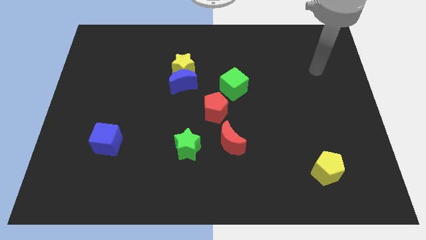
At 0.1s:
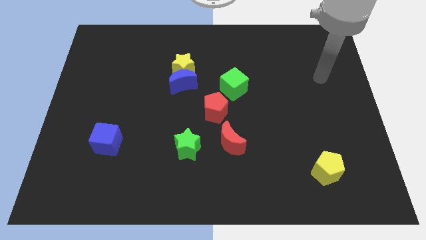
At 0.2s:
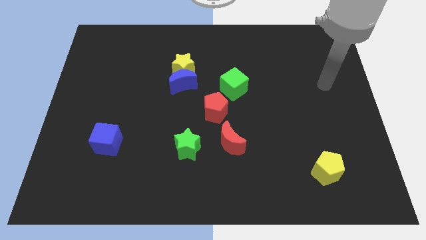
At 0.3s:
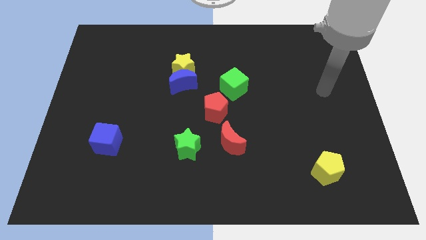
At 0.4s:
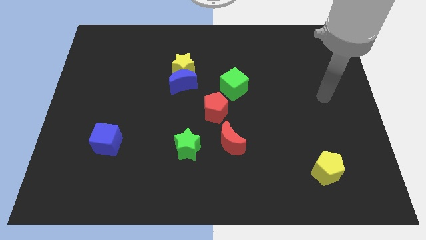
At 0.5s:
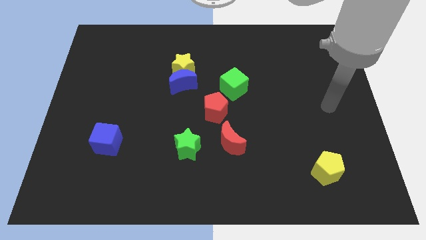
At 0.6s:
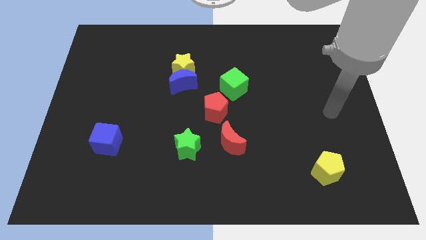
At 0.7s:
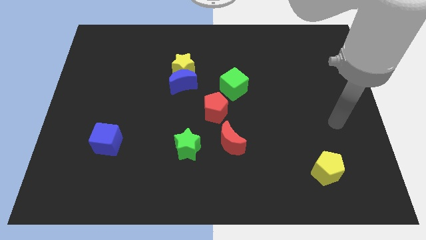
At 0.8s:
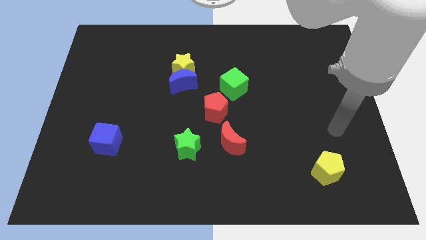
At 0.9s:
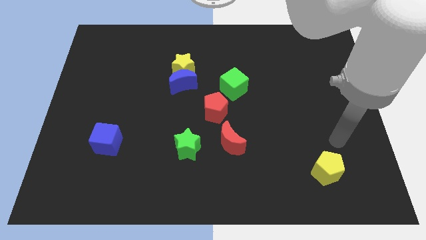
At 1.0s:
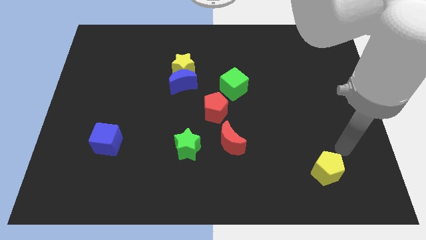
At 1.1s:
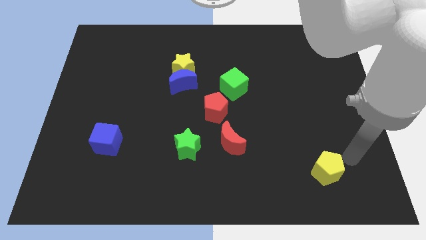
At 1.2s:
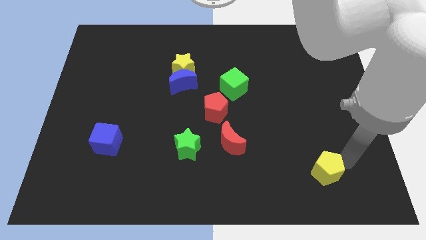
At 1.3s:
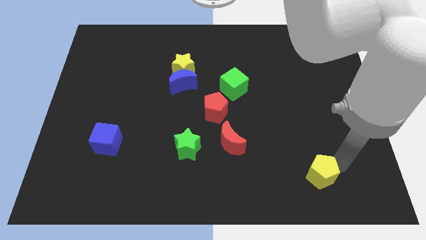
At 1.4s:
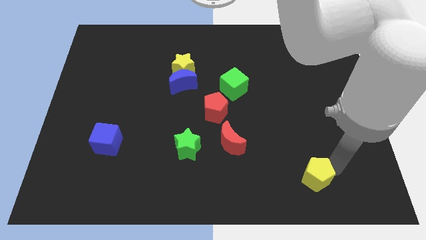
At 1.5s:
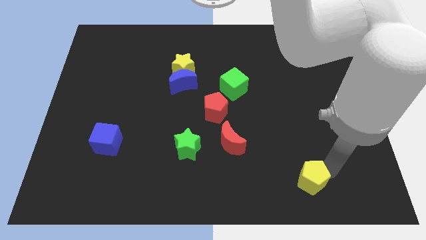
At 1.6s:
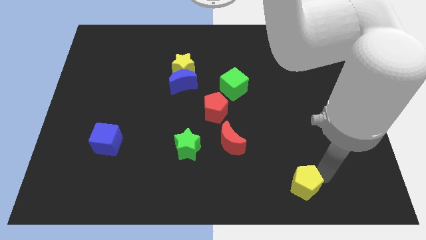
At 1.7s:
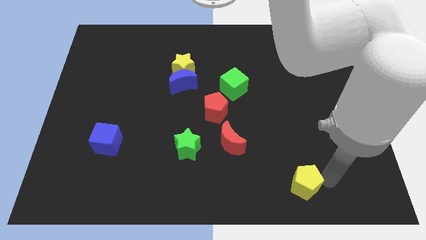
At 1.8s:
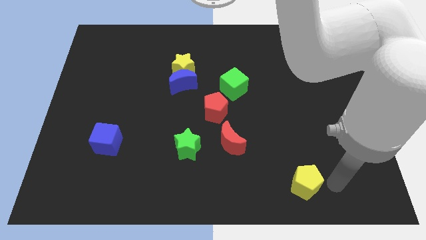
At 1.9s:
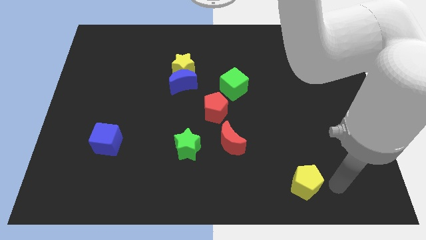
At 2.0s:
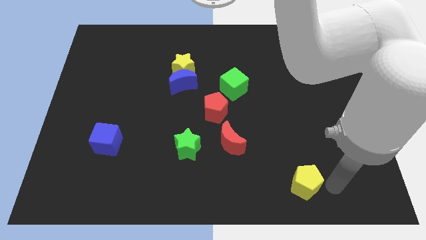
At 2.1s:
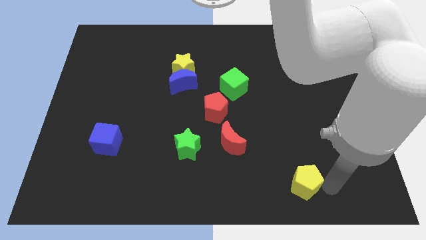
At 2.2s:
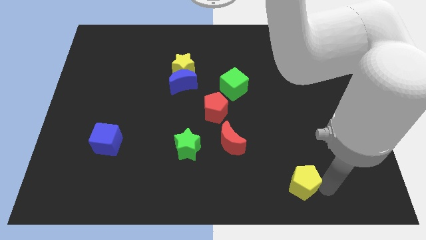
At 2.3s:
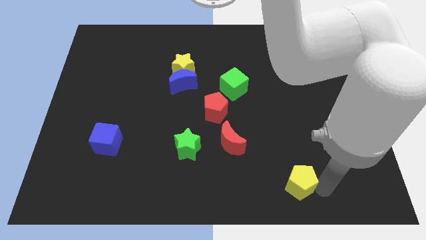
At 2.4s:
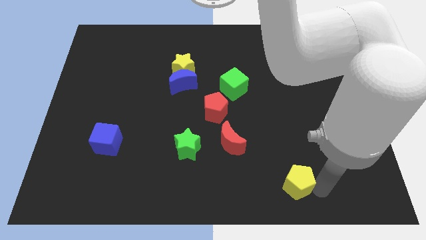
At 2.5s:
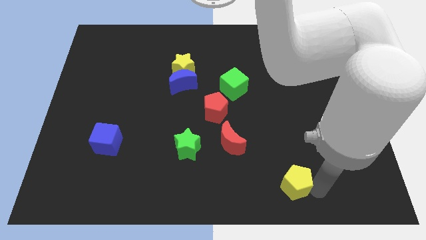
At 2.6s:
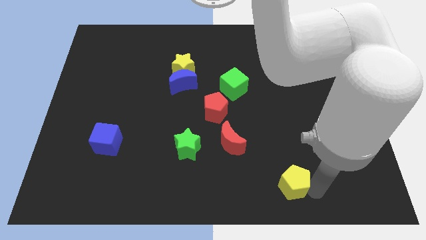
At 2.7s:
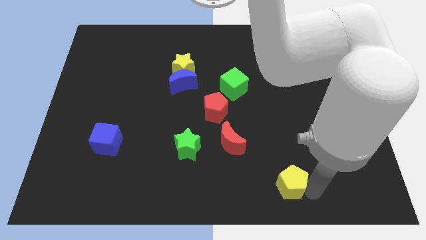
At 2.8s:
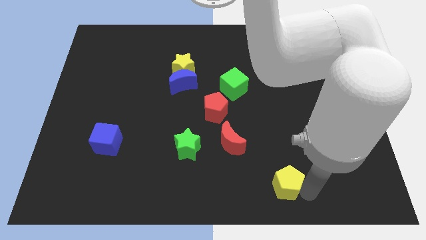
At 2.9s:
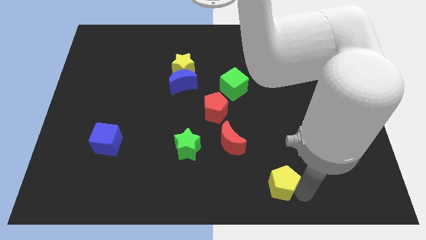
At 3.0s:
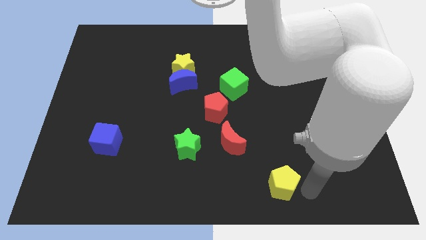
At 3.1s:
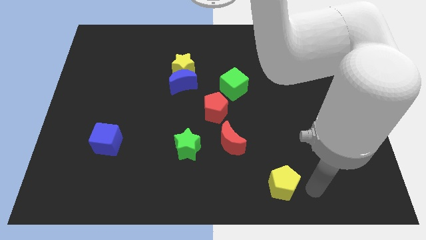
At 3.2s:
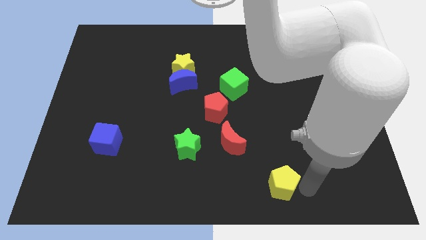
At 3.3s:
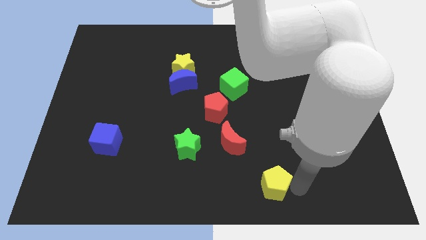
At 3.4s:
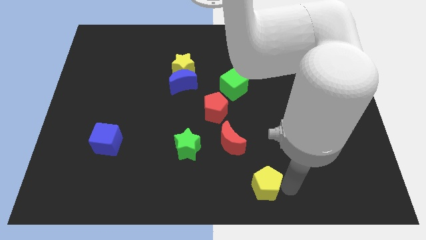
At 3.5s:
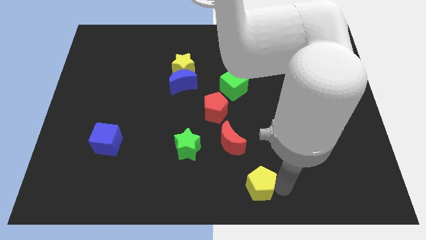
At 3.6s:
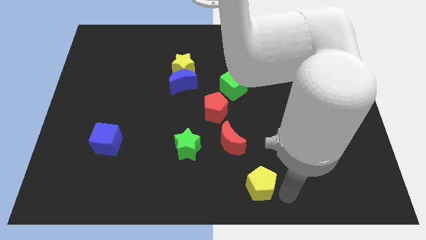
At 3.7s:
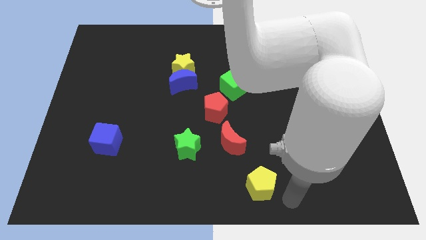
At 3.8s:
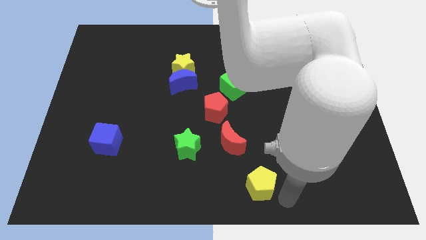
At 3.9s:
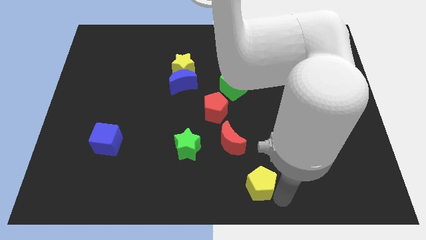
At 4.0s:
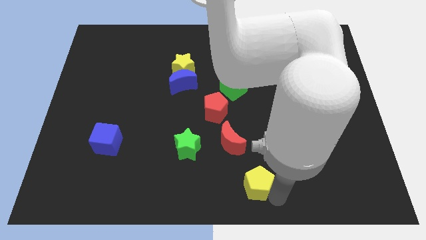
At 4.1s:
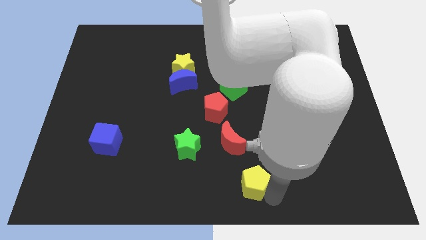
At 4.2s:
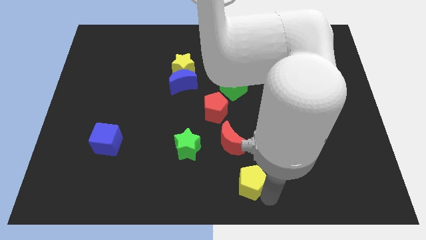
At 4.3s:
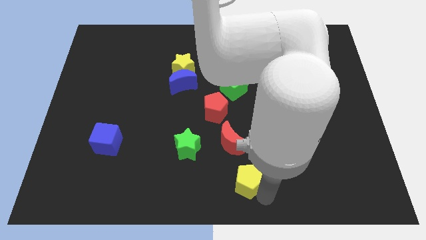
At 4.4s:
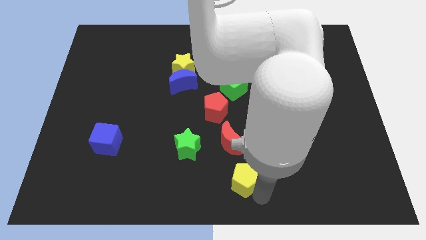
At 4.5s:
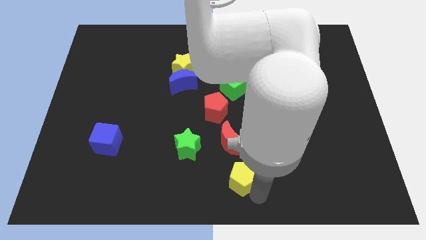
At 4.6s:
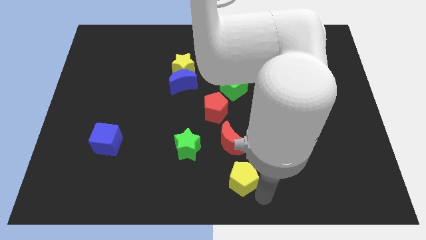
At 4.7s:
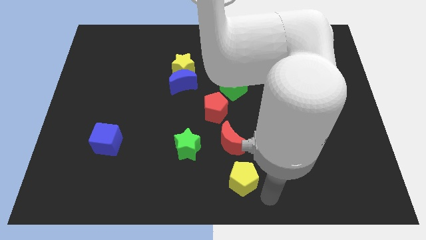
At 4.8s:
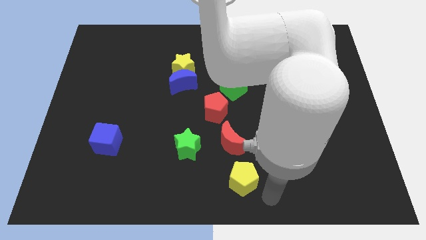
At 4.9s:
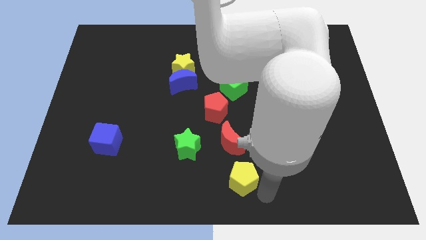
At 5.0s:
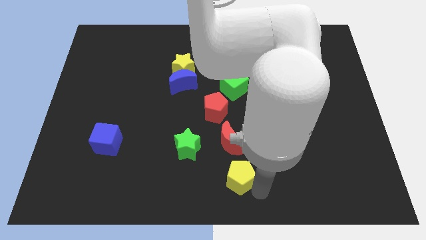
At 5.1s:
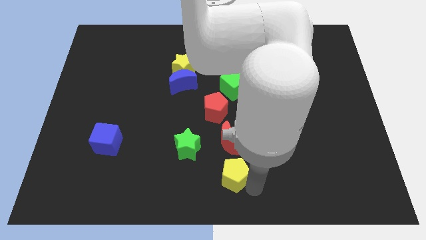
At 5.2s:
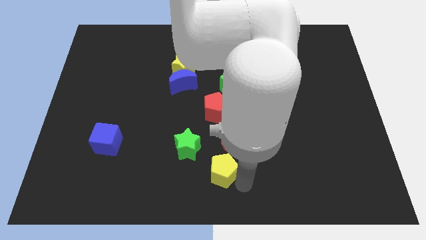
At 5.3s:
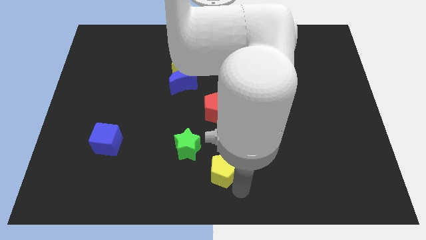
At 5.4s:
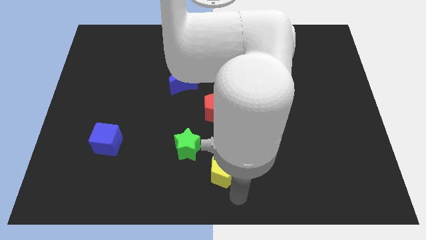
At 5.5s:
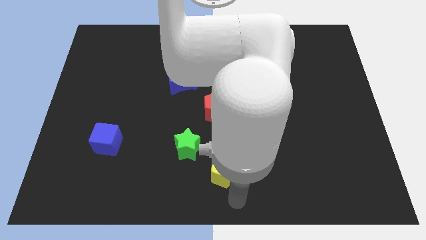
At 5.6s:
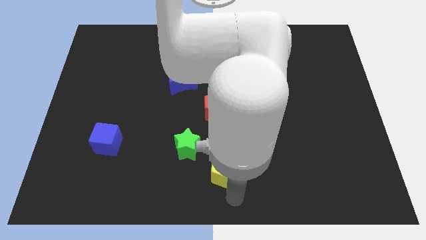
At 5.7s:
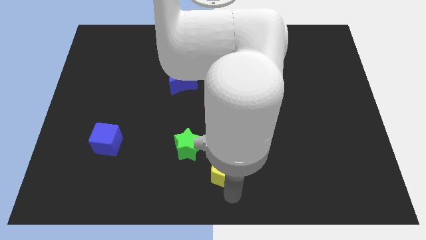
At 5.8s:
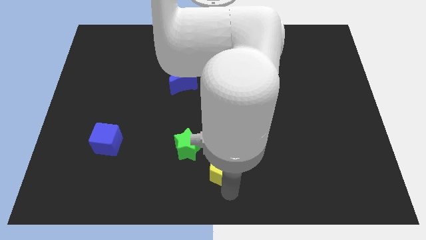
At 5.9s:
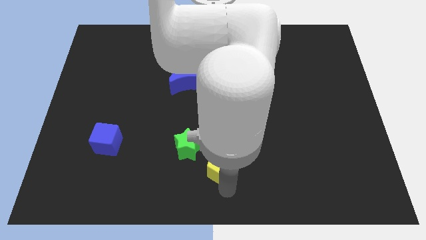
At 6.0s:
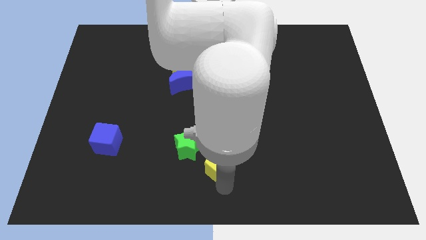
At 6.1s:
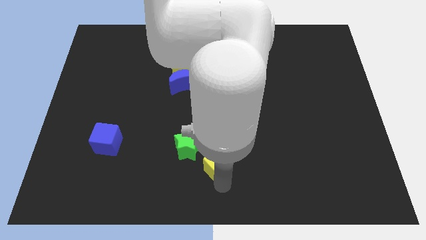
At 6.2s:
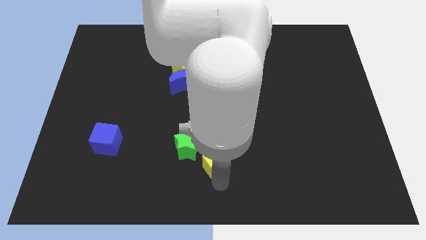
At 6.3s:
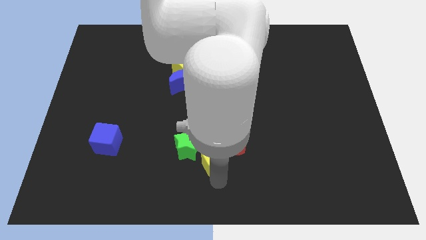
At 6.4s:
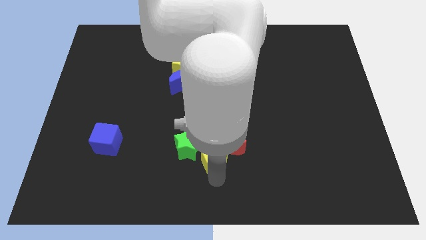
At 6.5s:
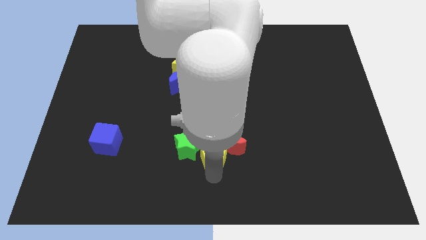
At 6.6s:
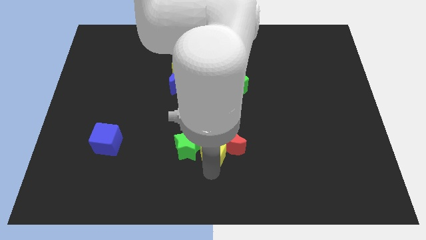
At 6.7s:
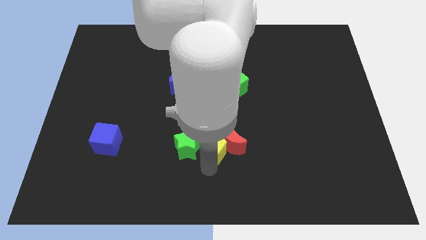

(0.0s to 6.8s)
move the yellow pentagon to the top left of the red moon
